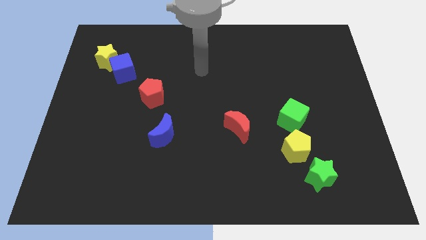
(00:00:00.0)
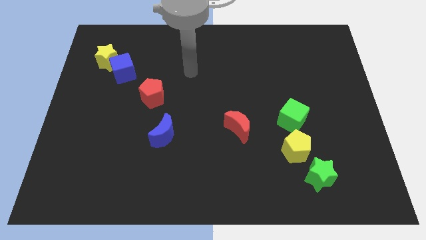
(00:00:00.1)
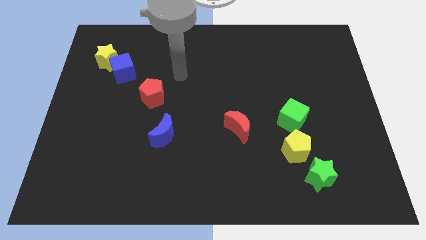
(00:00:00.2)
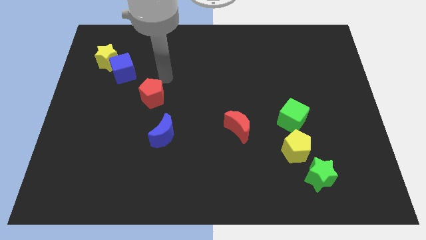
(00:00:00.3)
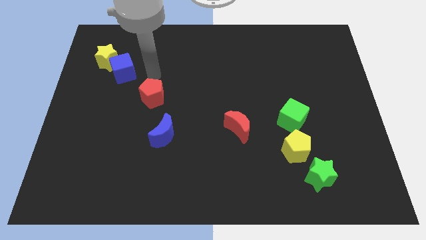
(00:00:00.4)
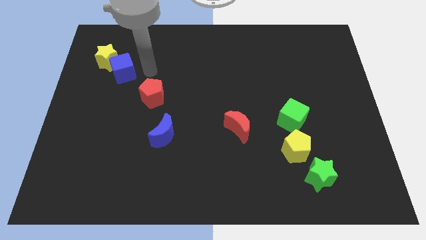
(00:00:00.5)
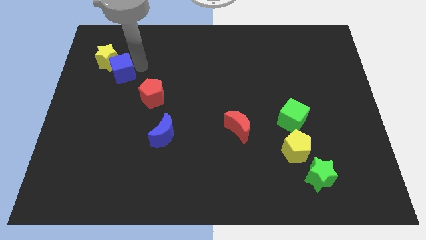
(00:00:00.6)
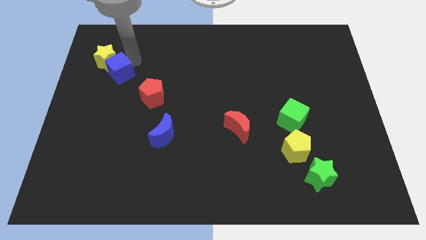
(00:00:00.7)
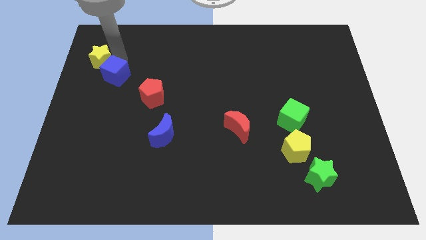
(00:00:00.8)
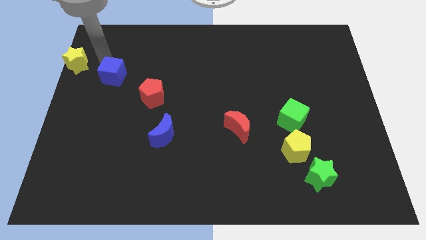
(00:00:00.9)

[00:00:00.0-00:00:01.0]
separate the blue cube from the yellow star

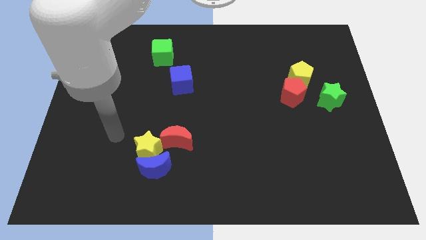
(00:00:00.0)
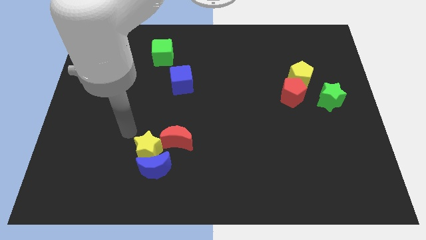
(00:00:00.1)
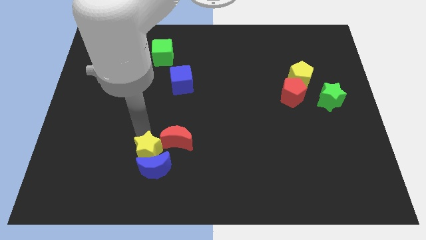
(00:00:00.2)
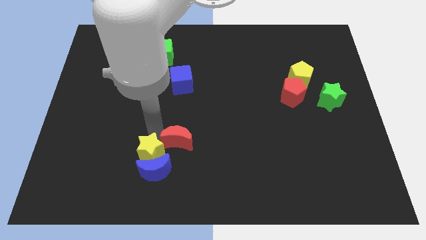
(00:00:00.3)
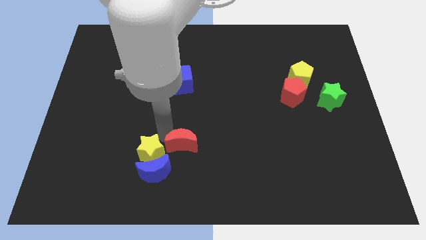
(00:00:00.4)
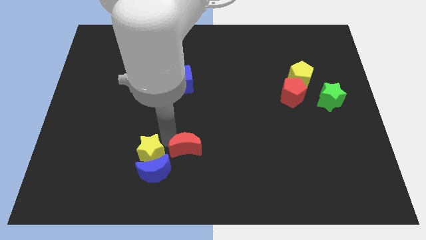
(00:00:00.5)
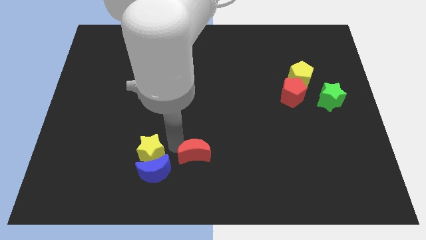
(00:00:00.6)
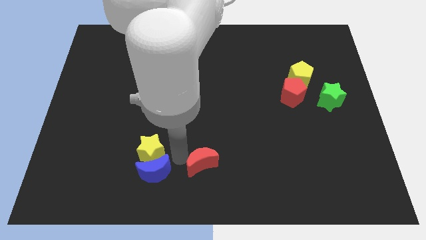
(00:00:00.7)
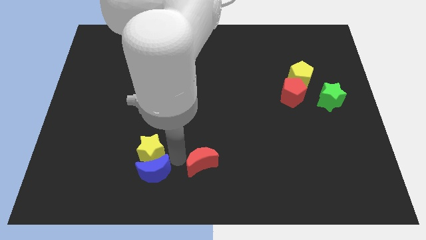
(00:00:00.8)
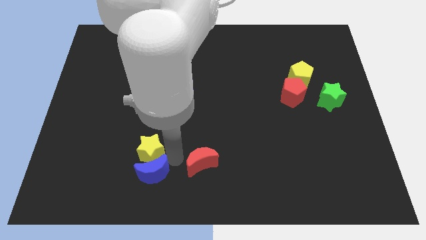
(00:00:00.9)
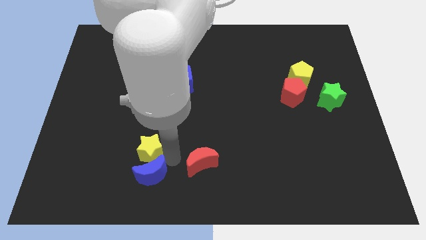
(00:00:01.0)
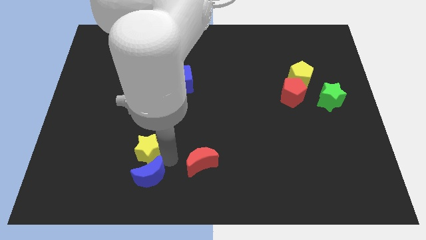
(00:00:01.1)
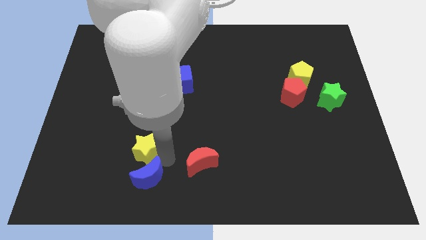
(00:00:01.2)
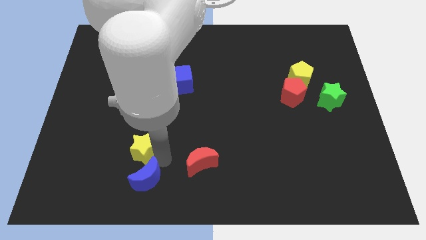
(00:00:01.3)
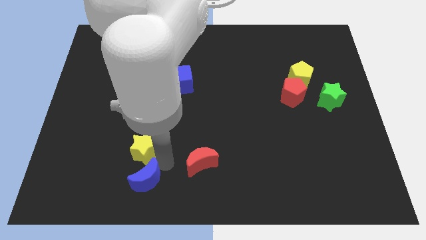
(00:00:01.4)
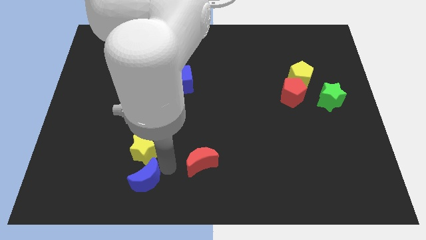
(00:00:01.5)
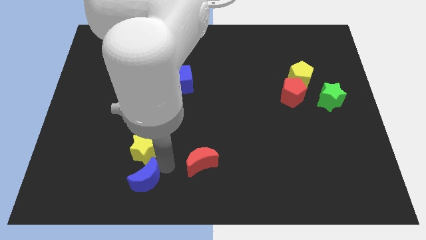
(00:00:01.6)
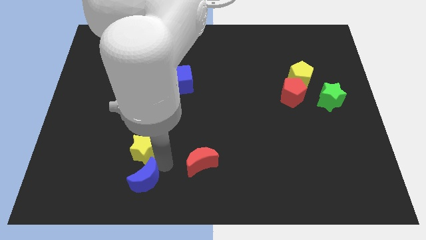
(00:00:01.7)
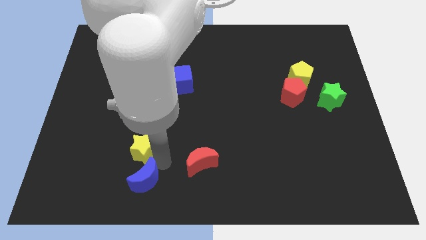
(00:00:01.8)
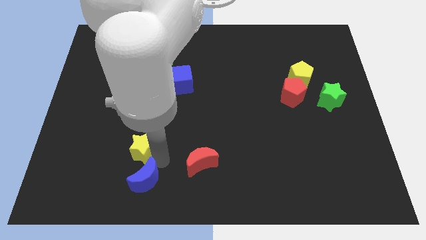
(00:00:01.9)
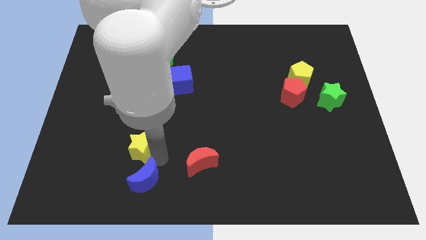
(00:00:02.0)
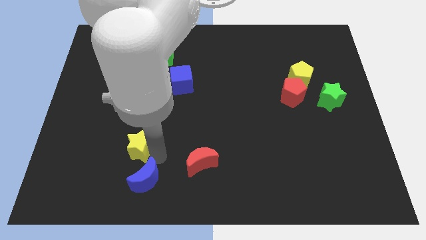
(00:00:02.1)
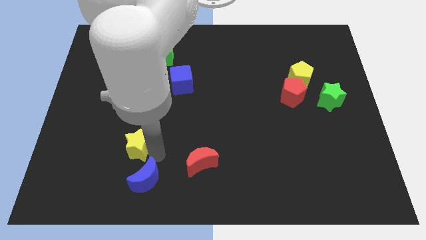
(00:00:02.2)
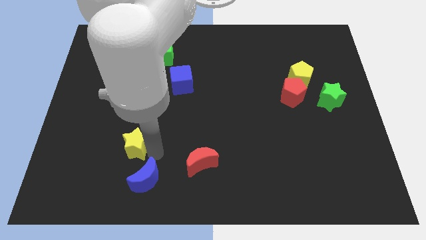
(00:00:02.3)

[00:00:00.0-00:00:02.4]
move the yellow star away from the blue moon and red moon

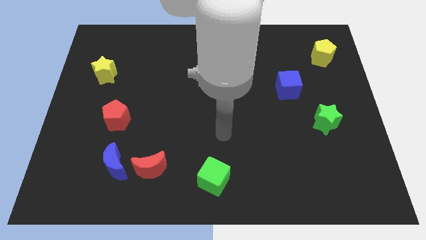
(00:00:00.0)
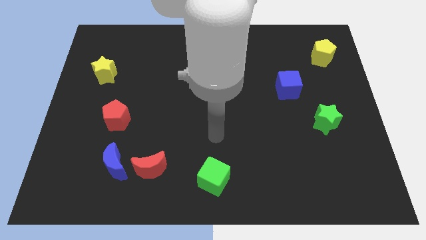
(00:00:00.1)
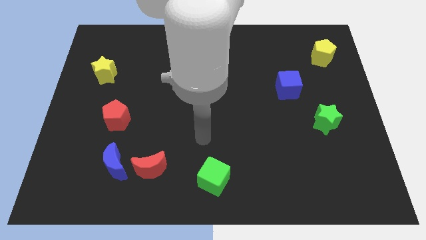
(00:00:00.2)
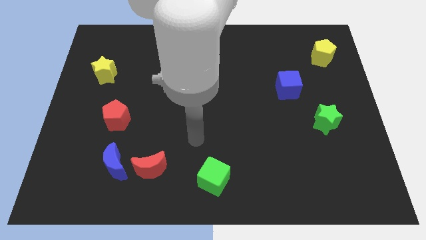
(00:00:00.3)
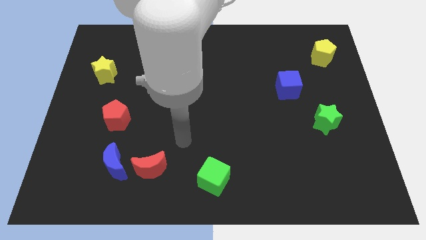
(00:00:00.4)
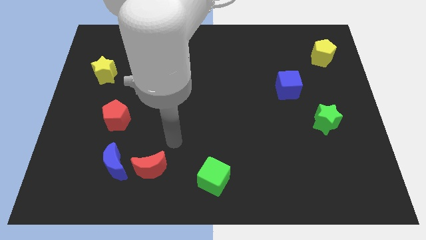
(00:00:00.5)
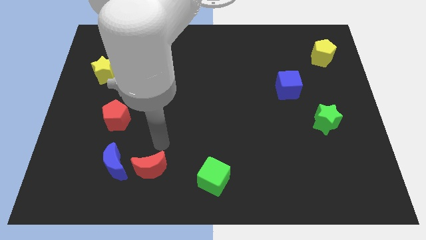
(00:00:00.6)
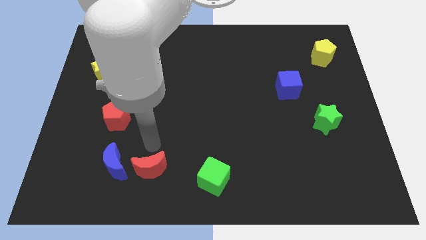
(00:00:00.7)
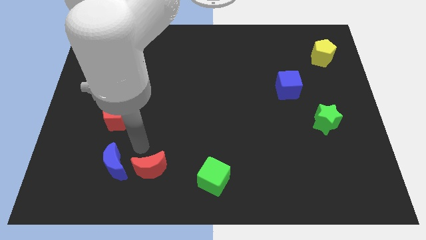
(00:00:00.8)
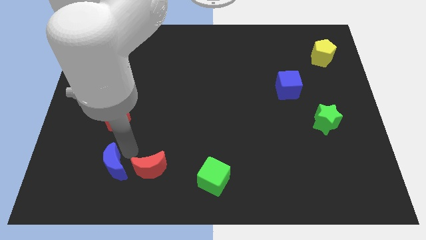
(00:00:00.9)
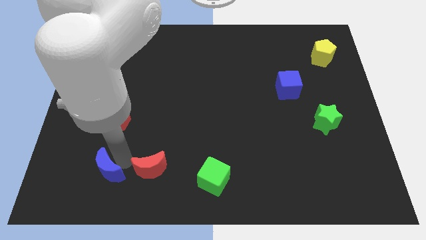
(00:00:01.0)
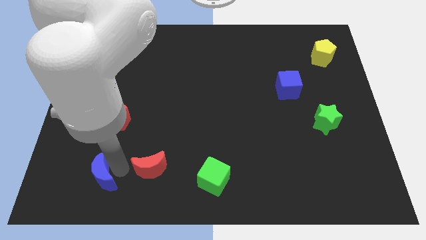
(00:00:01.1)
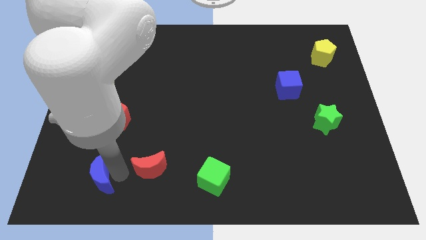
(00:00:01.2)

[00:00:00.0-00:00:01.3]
separate the red moon from the blue moon

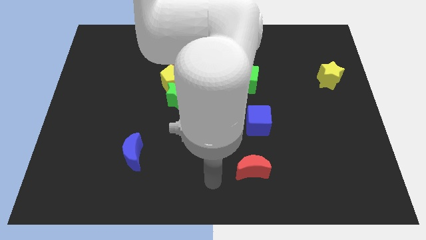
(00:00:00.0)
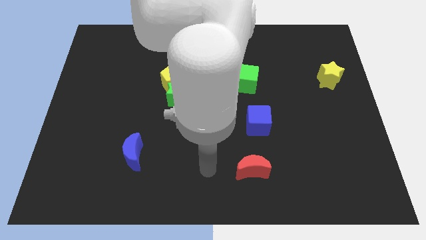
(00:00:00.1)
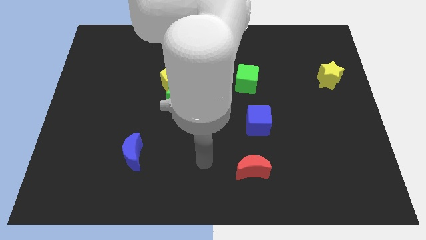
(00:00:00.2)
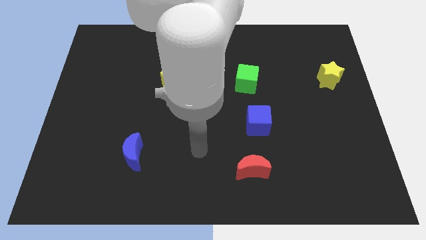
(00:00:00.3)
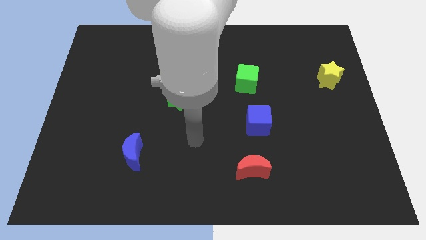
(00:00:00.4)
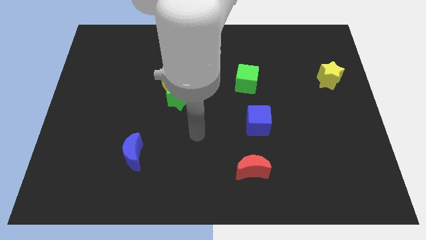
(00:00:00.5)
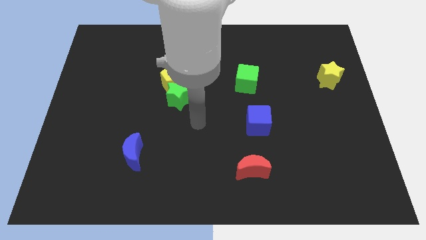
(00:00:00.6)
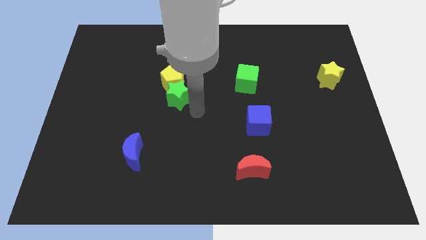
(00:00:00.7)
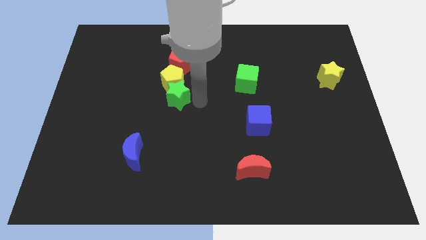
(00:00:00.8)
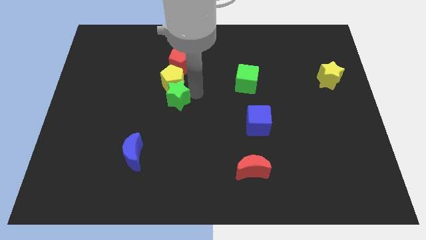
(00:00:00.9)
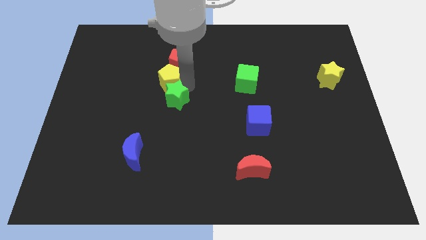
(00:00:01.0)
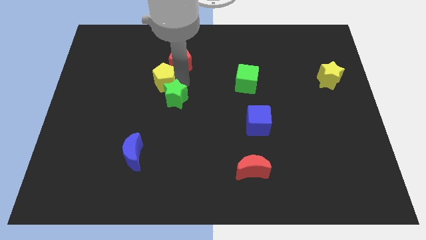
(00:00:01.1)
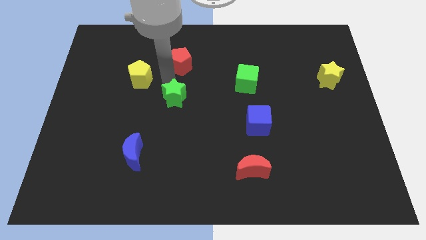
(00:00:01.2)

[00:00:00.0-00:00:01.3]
pull the green star apart from the yellow pentagon

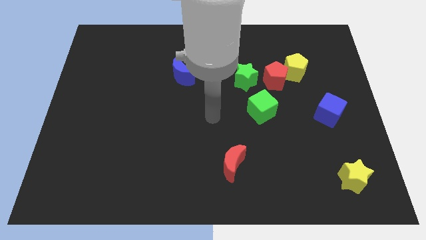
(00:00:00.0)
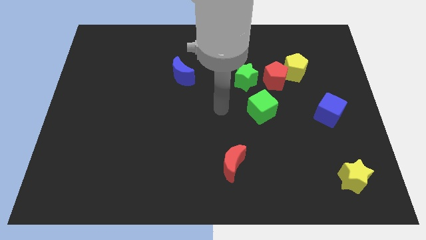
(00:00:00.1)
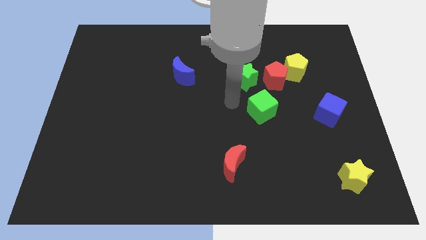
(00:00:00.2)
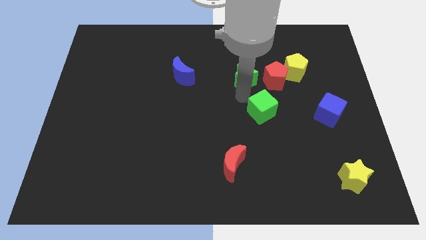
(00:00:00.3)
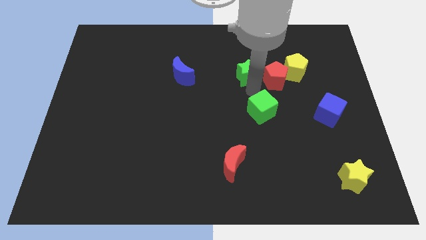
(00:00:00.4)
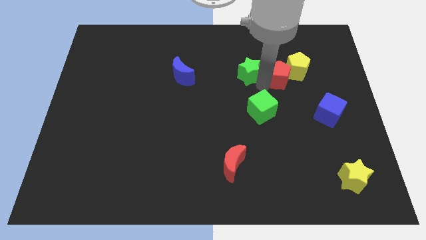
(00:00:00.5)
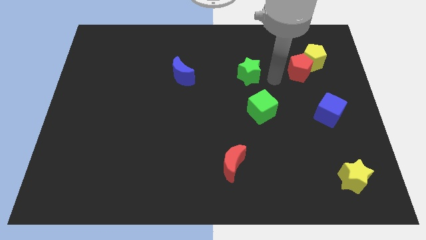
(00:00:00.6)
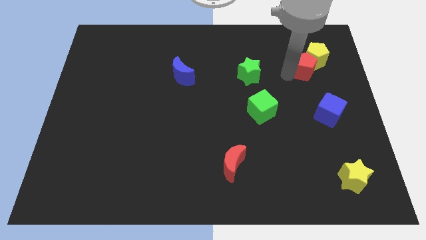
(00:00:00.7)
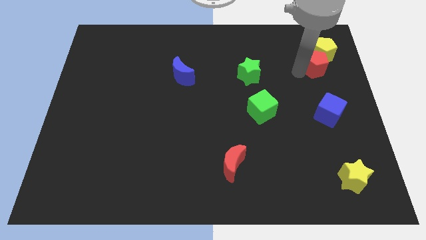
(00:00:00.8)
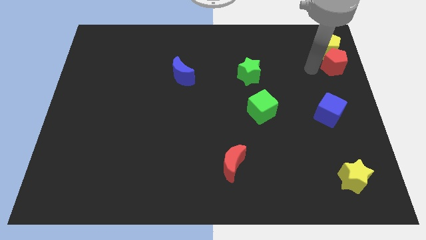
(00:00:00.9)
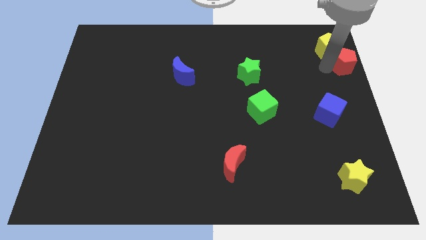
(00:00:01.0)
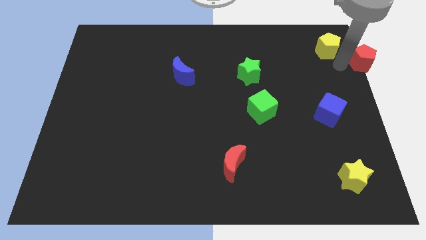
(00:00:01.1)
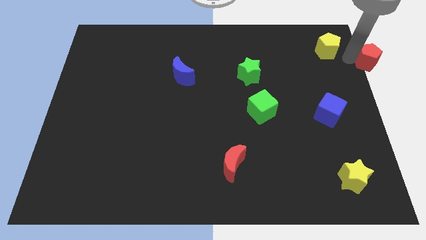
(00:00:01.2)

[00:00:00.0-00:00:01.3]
move the yellow pentagon away from the red pentagon

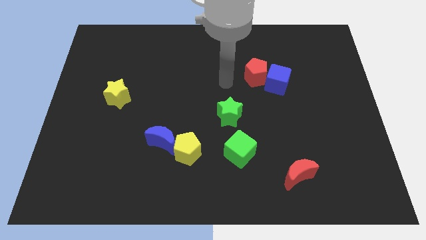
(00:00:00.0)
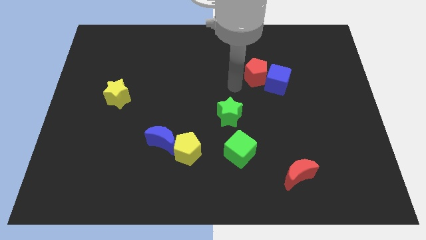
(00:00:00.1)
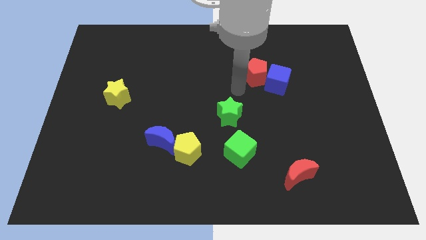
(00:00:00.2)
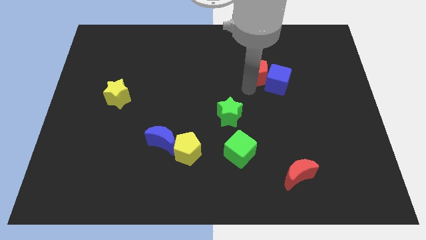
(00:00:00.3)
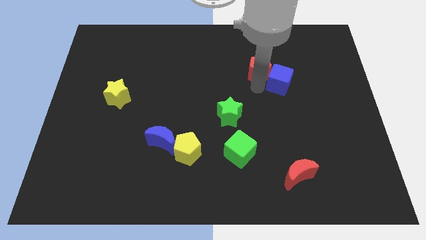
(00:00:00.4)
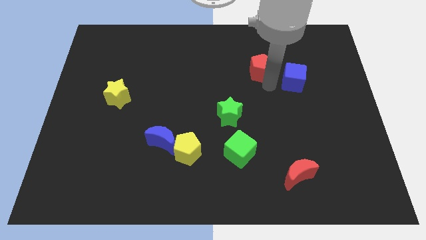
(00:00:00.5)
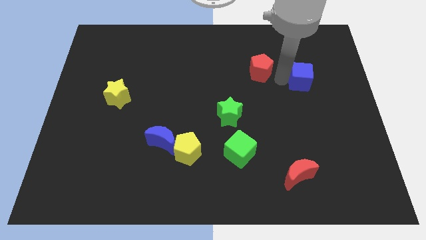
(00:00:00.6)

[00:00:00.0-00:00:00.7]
pull the red pentagon apart from the blue cube

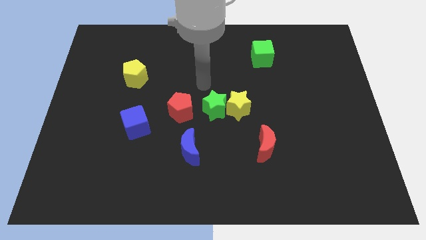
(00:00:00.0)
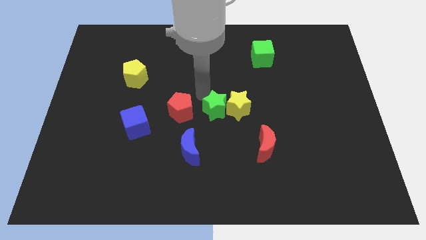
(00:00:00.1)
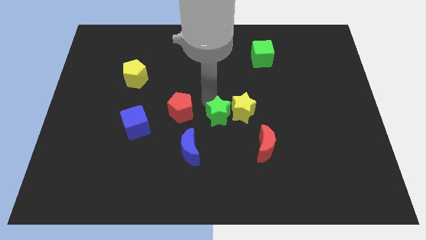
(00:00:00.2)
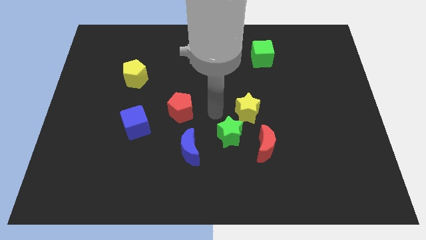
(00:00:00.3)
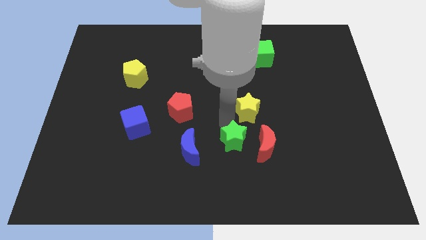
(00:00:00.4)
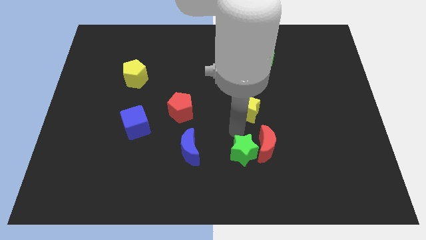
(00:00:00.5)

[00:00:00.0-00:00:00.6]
move the yellow star away from the green star

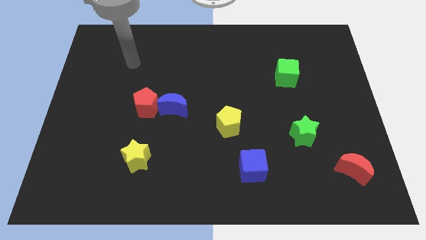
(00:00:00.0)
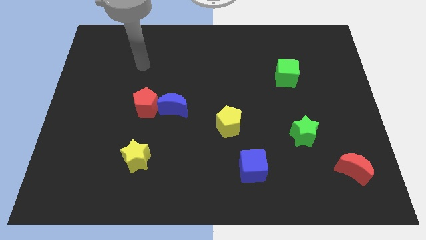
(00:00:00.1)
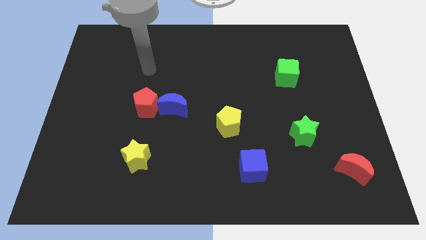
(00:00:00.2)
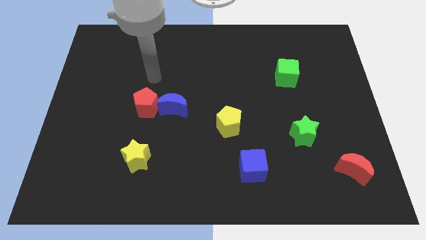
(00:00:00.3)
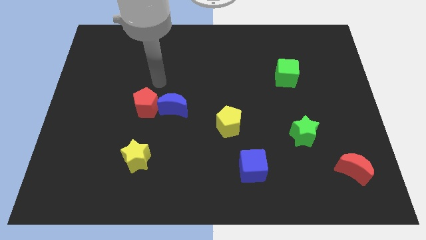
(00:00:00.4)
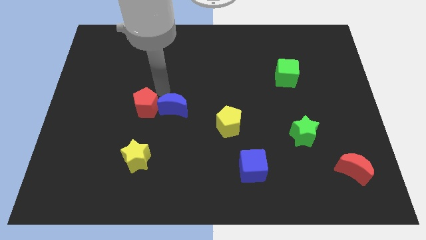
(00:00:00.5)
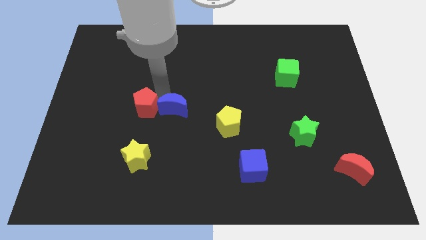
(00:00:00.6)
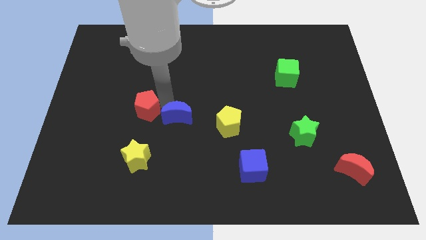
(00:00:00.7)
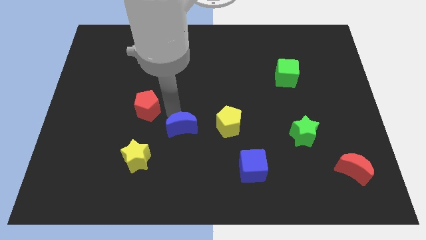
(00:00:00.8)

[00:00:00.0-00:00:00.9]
pull the red pentagon apart from the blue moon
